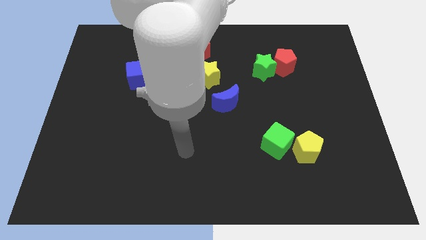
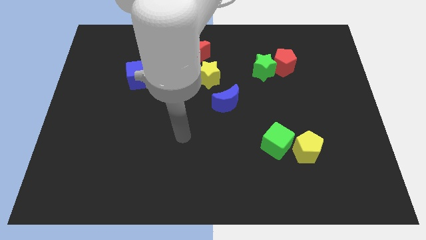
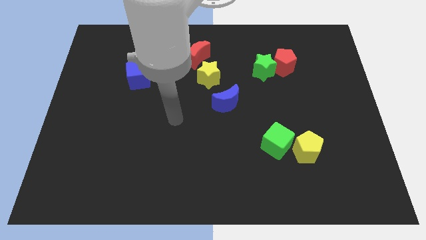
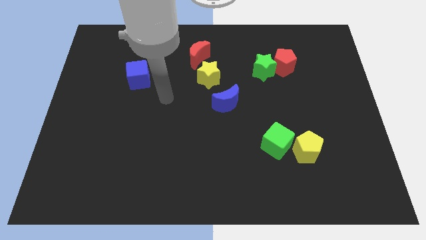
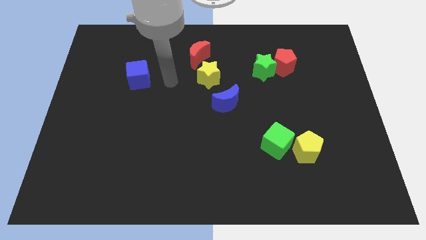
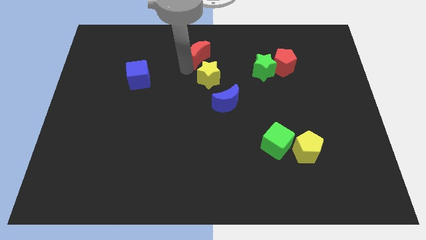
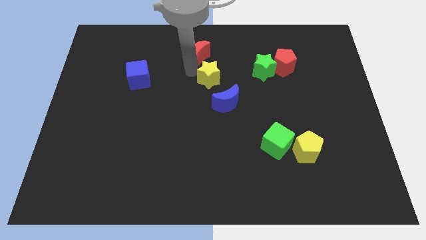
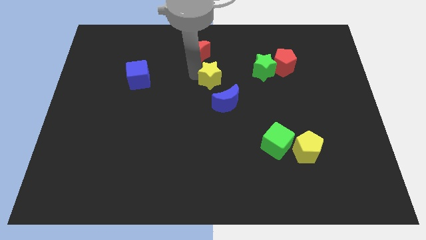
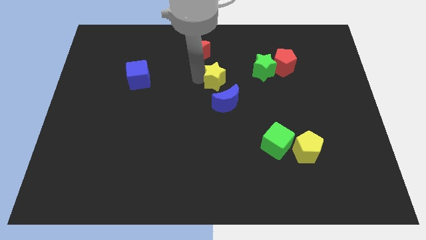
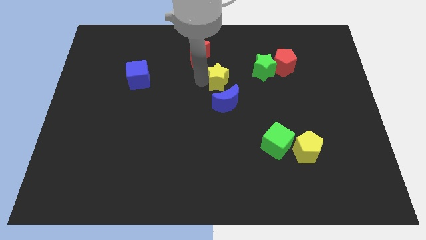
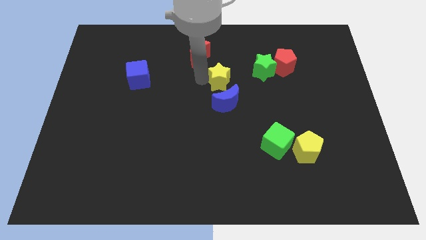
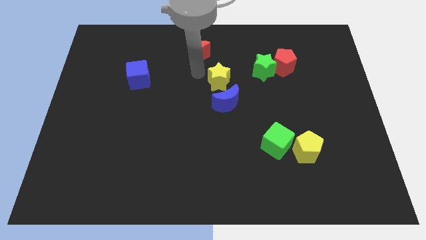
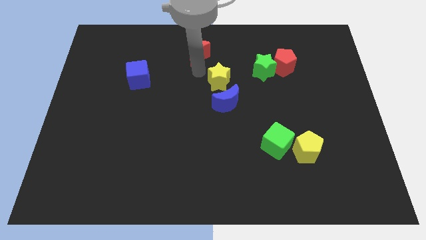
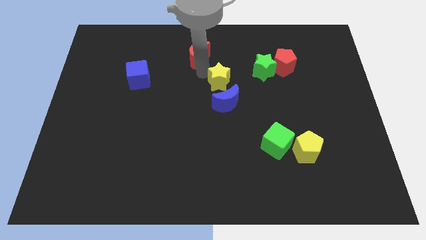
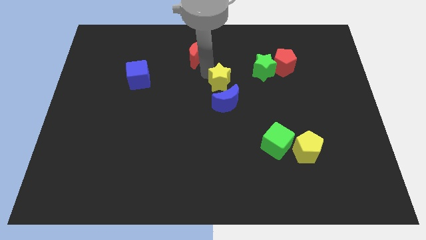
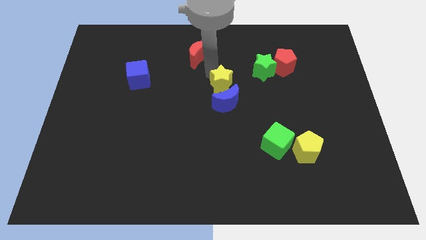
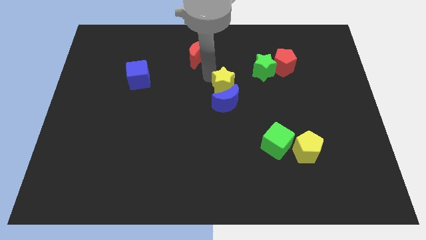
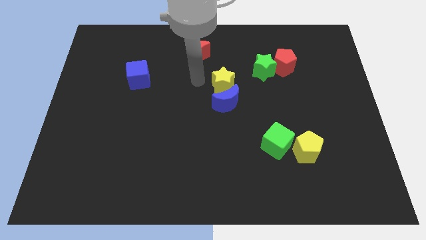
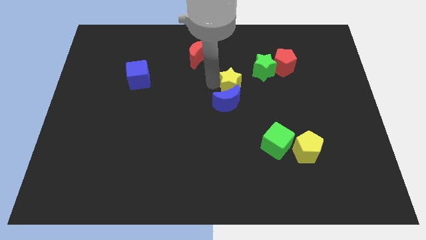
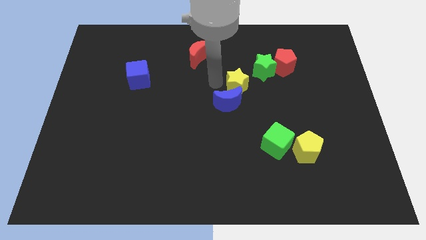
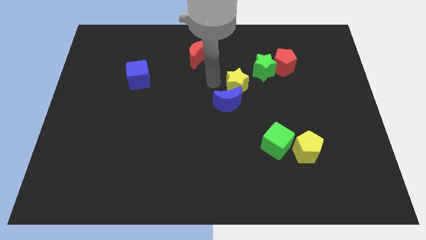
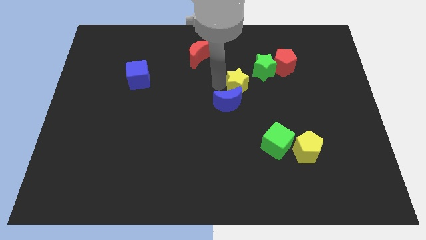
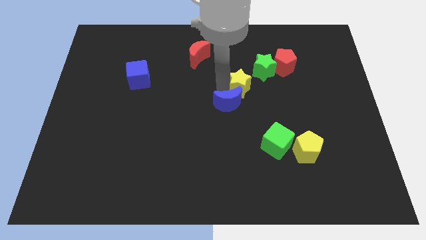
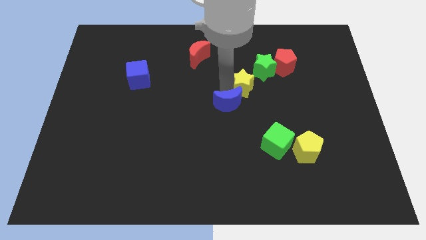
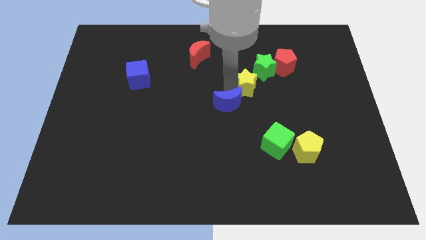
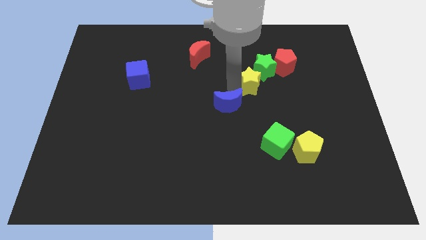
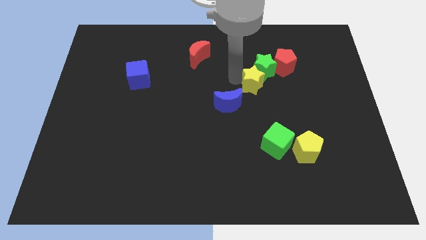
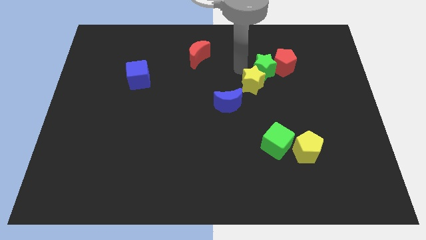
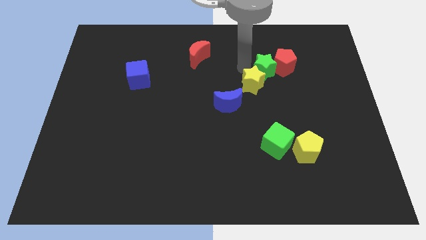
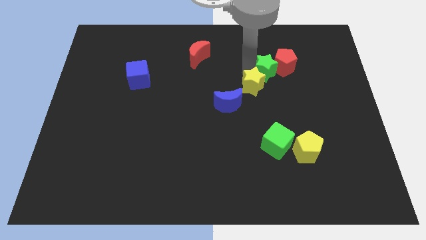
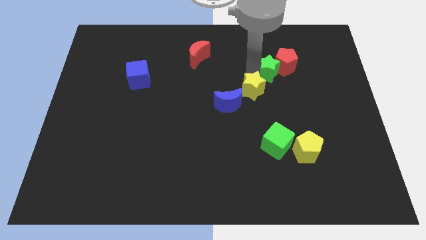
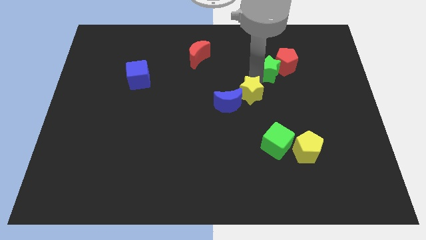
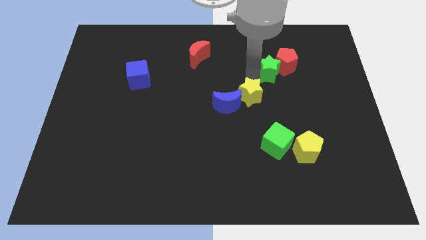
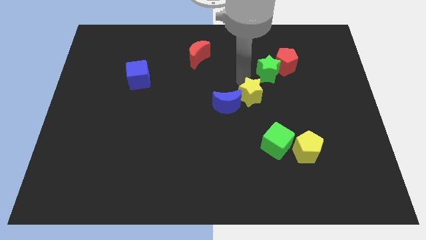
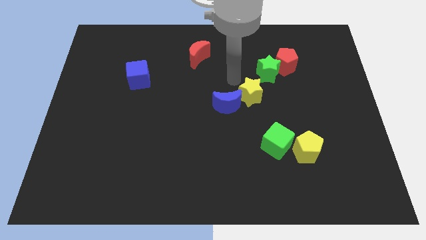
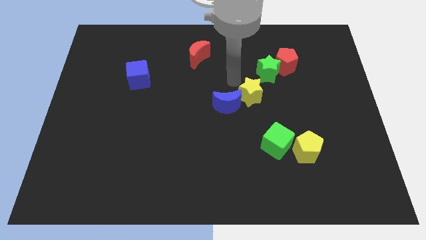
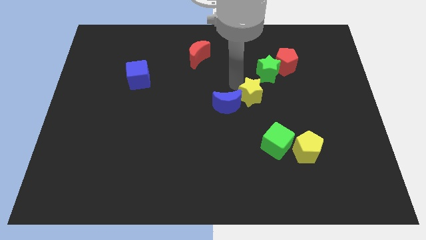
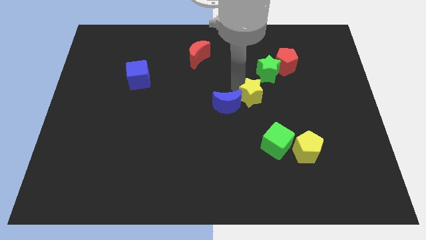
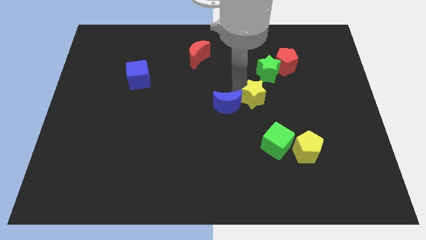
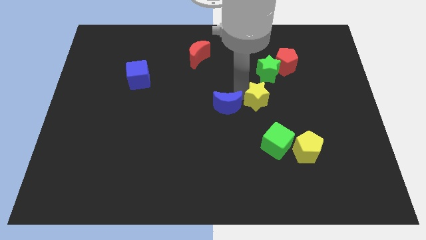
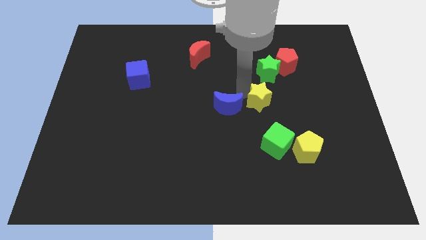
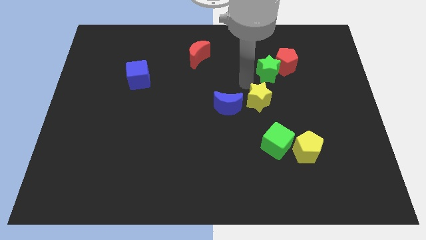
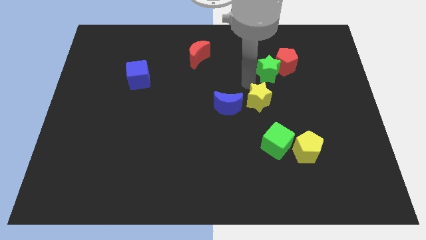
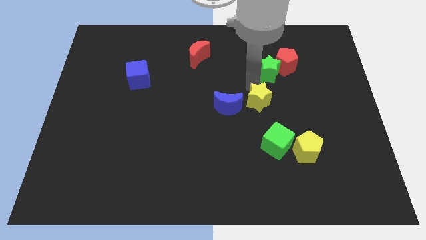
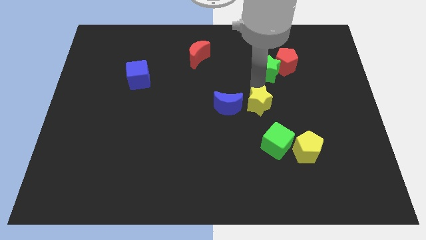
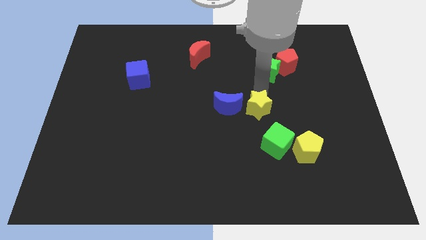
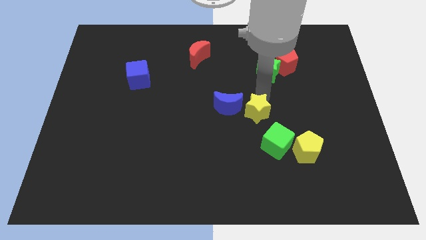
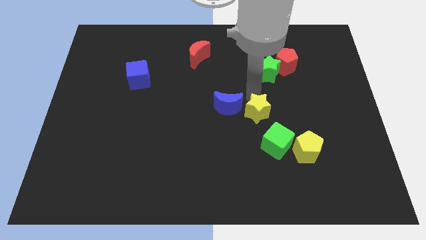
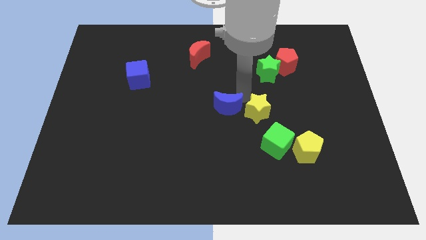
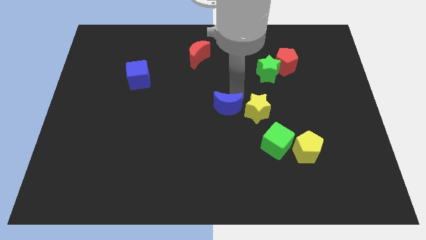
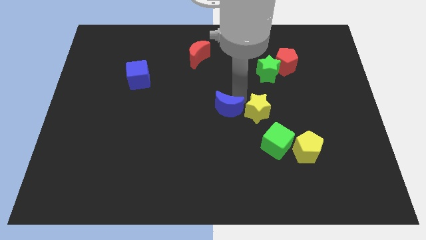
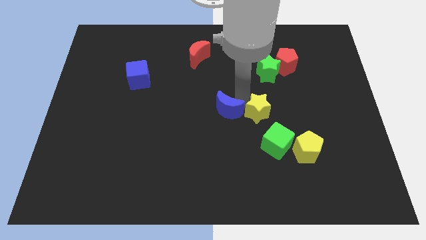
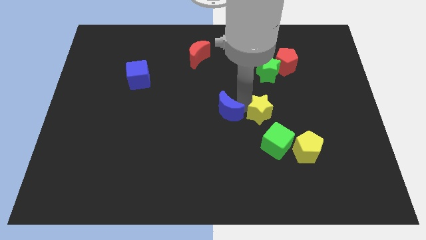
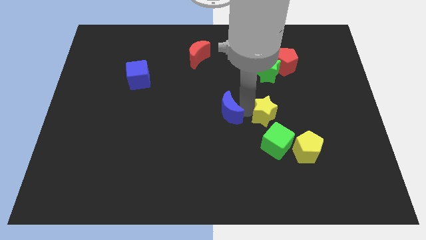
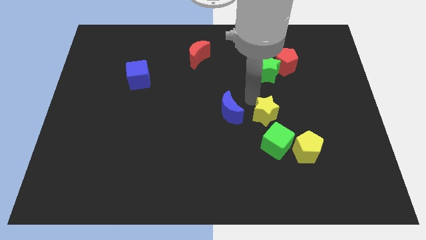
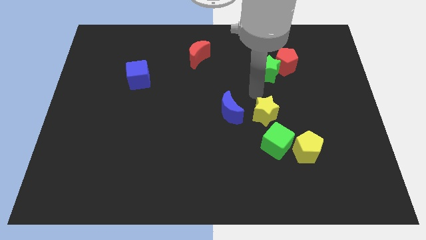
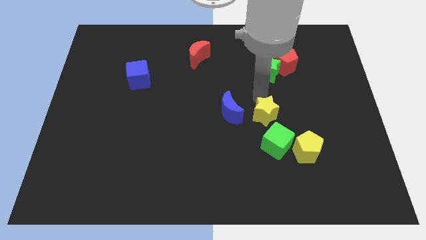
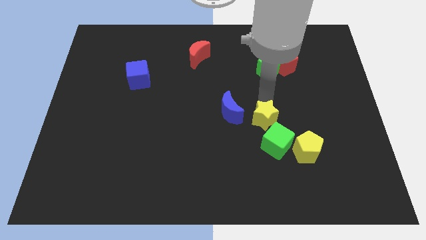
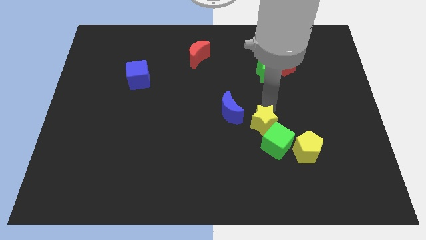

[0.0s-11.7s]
put the yellow star towards the green cube
